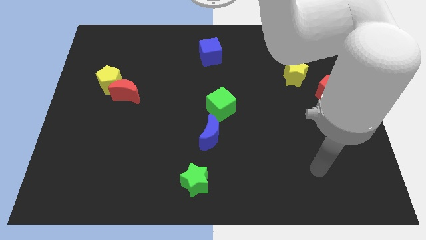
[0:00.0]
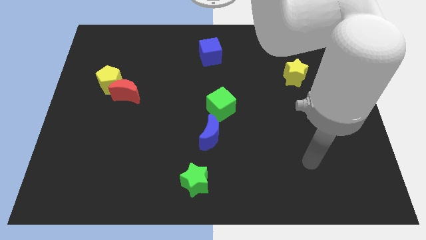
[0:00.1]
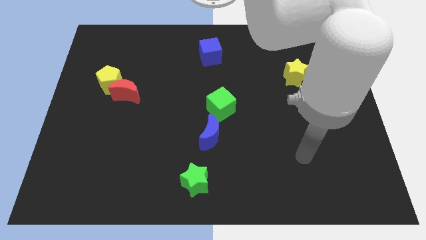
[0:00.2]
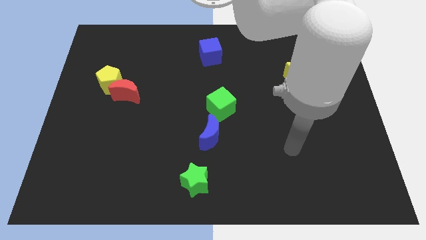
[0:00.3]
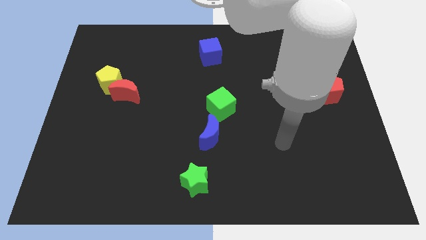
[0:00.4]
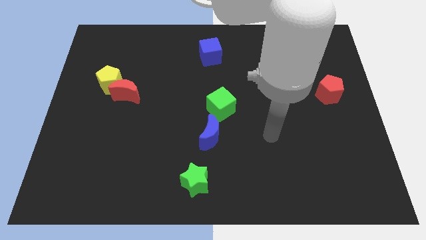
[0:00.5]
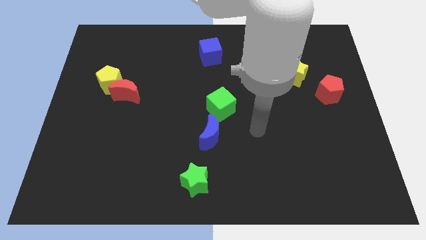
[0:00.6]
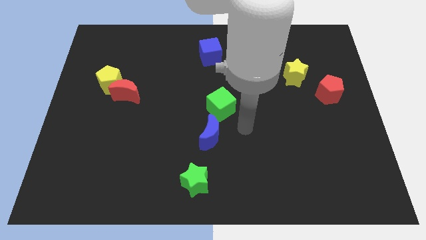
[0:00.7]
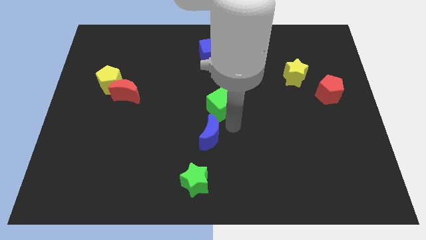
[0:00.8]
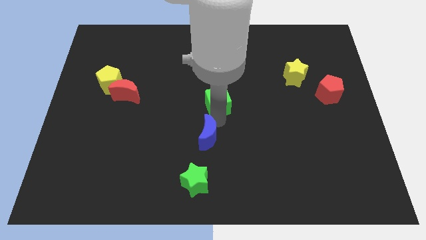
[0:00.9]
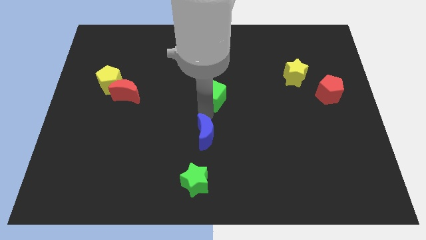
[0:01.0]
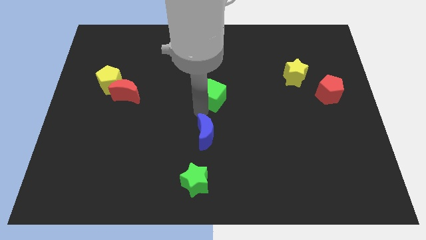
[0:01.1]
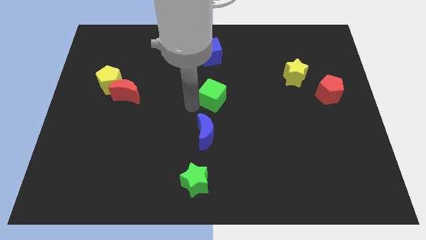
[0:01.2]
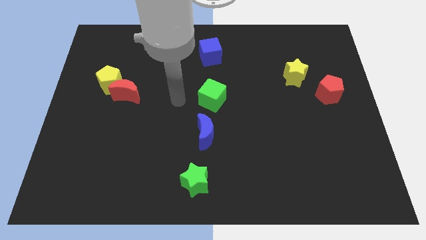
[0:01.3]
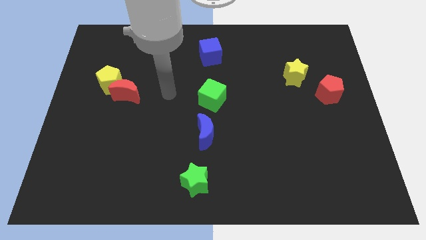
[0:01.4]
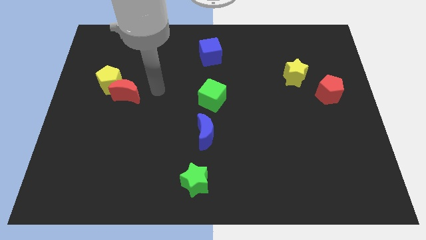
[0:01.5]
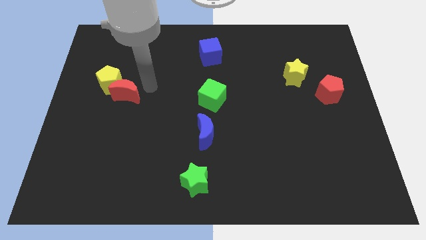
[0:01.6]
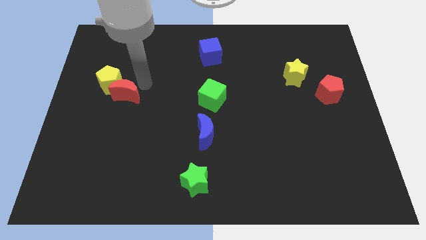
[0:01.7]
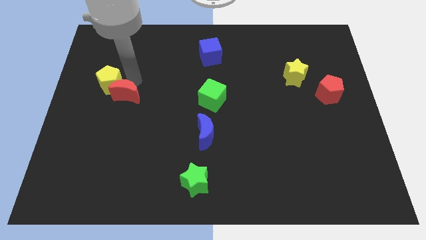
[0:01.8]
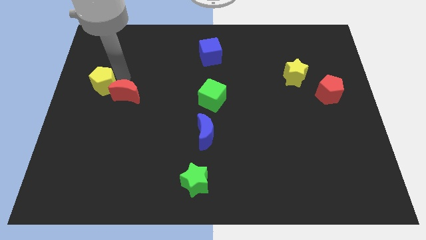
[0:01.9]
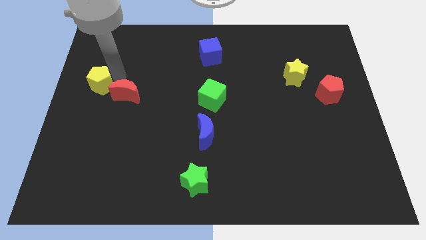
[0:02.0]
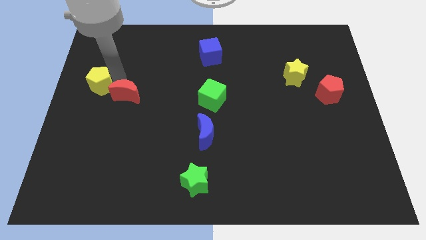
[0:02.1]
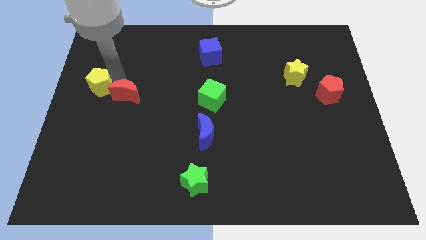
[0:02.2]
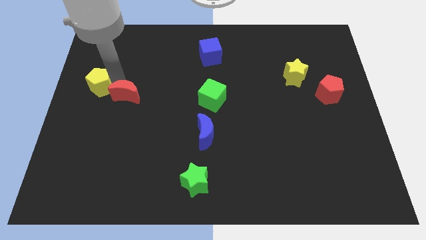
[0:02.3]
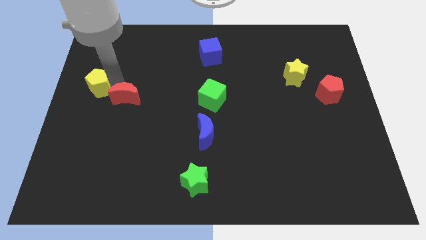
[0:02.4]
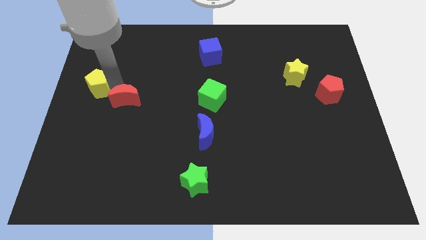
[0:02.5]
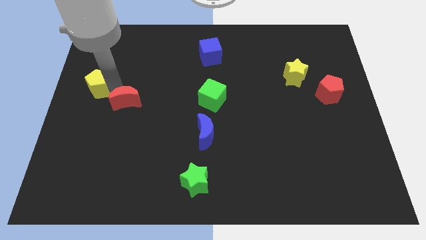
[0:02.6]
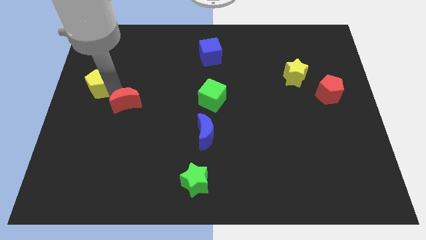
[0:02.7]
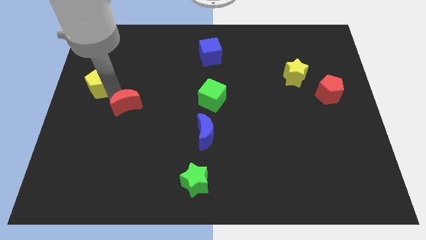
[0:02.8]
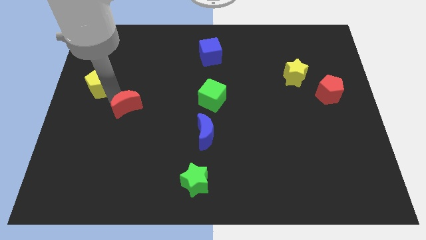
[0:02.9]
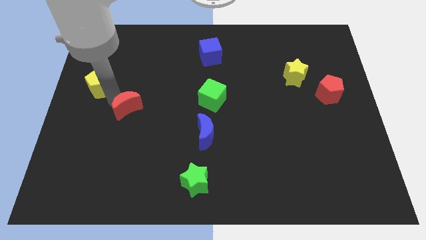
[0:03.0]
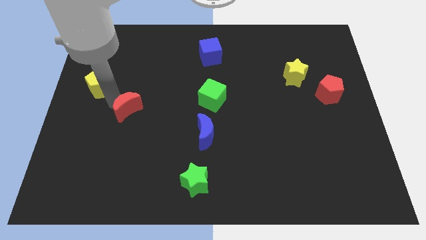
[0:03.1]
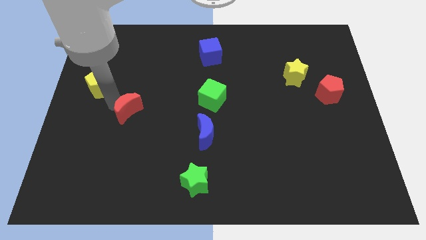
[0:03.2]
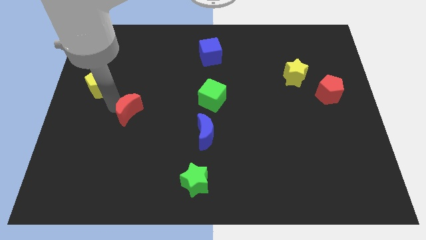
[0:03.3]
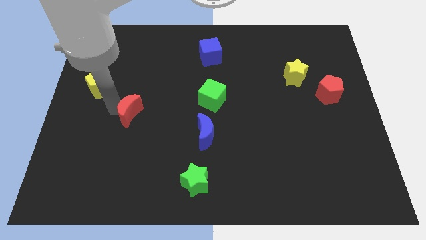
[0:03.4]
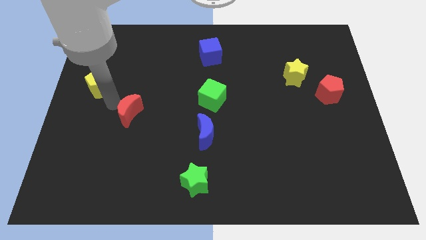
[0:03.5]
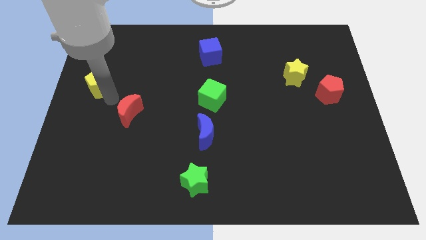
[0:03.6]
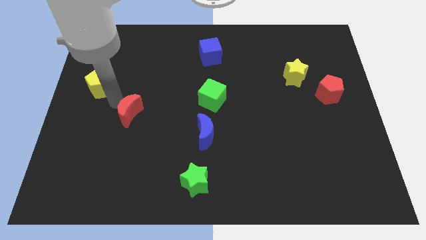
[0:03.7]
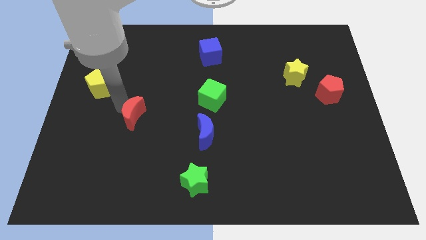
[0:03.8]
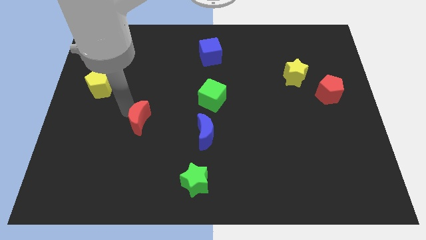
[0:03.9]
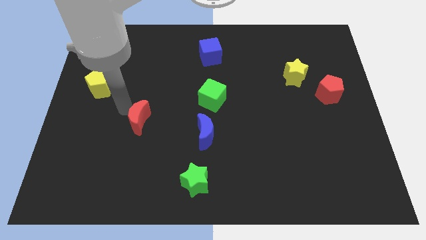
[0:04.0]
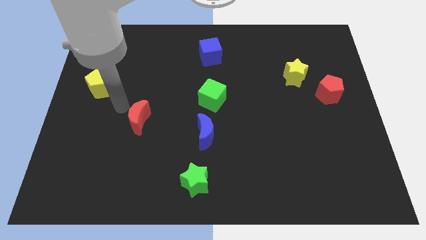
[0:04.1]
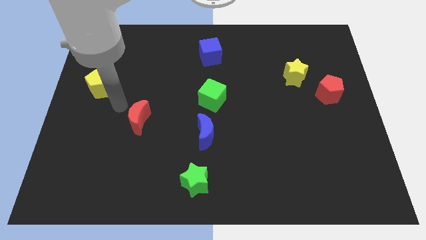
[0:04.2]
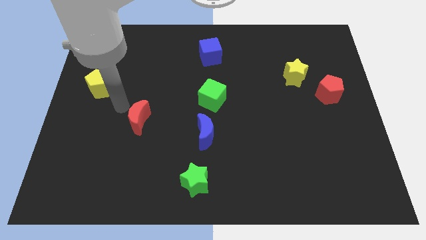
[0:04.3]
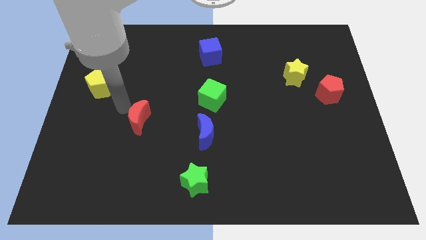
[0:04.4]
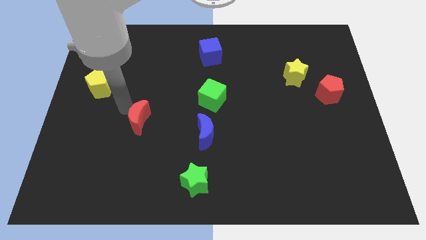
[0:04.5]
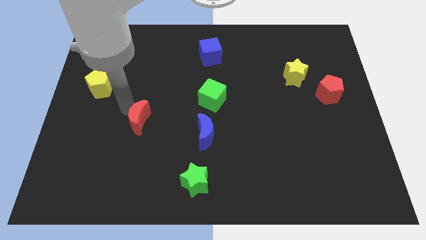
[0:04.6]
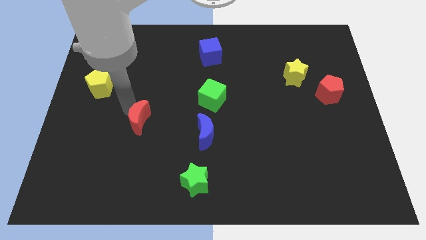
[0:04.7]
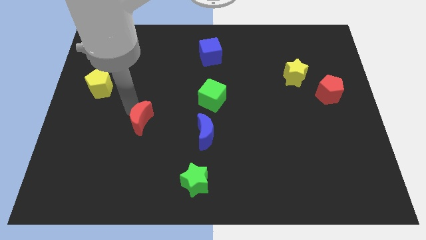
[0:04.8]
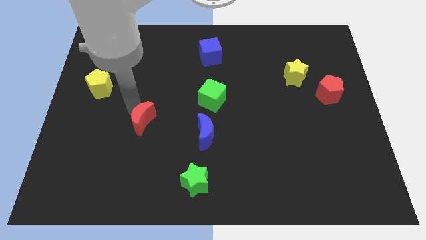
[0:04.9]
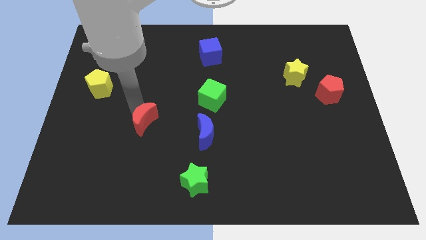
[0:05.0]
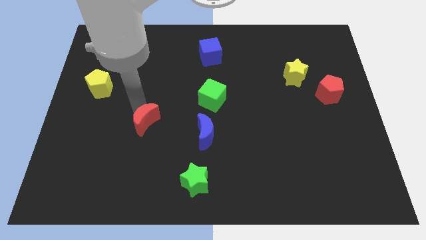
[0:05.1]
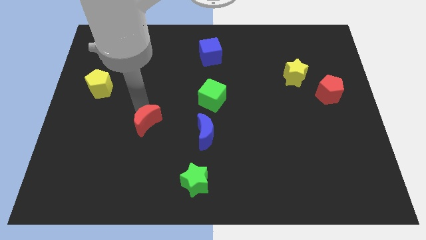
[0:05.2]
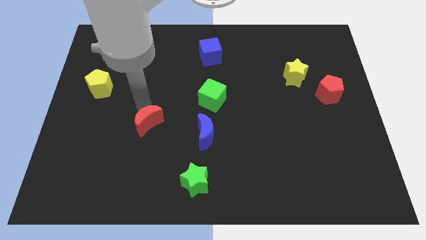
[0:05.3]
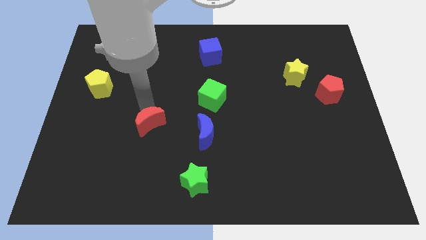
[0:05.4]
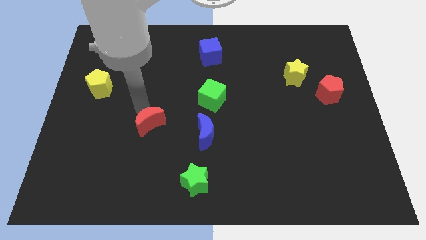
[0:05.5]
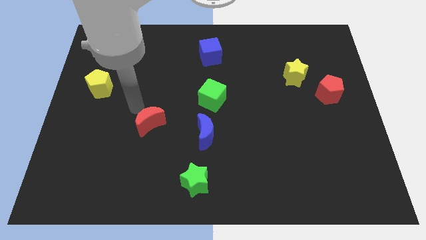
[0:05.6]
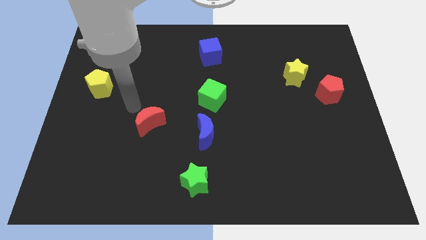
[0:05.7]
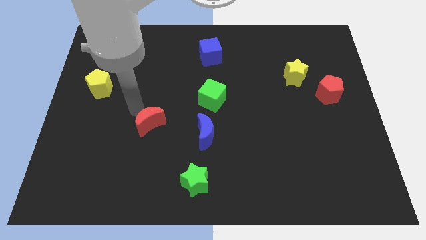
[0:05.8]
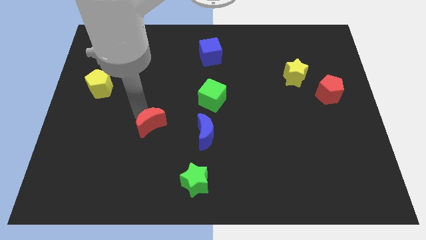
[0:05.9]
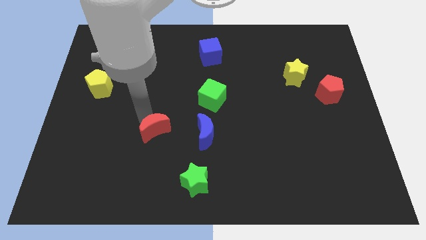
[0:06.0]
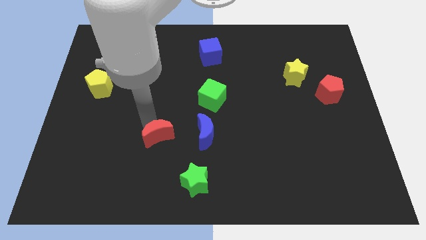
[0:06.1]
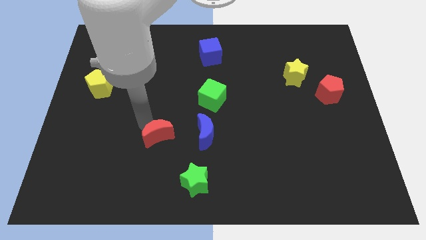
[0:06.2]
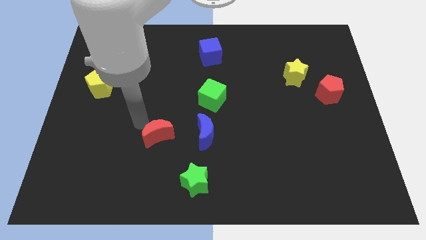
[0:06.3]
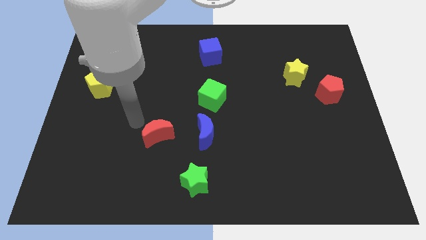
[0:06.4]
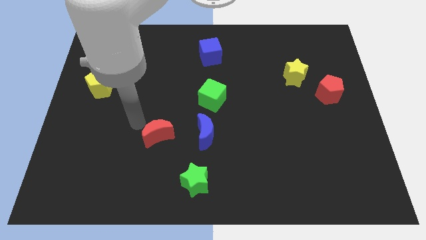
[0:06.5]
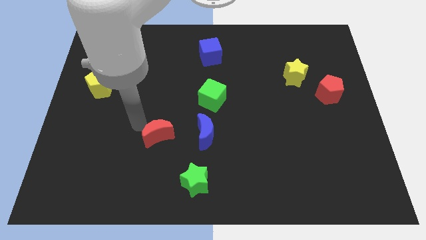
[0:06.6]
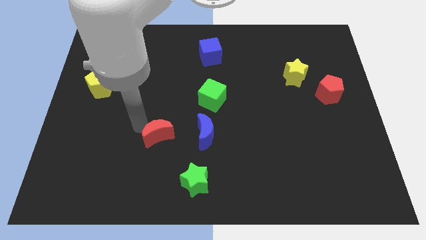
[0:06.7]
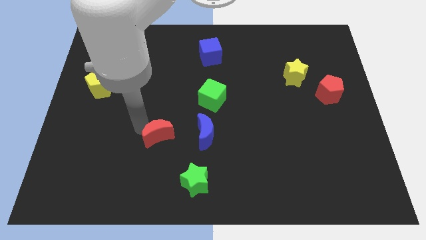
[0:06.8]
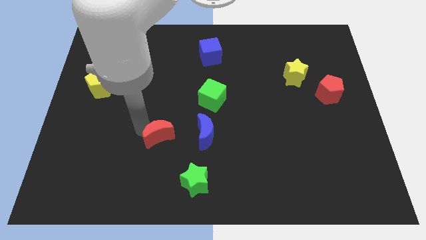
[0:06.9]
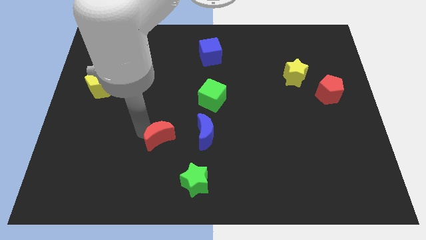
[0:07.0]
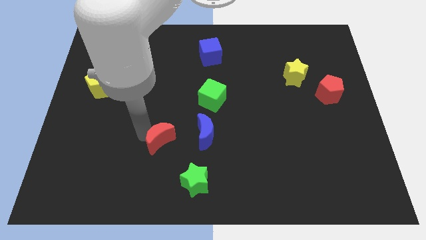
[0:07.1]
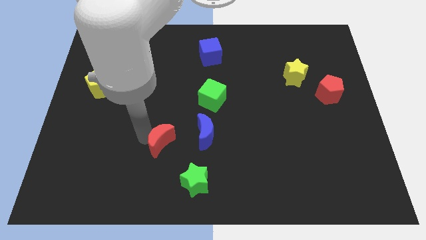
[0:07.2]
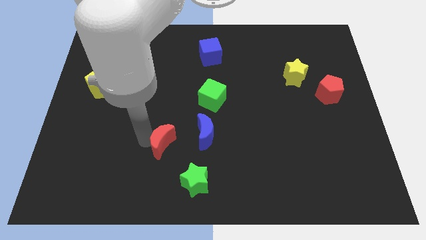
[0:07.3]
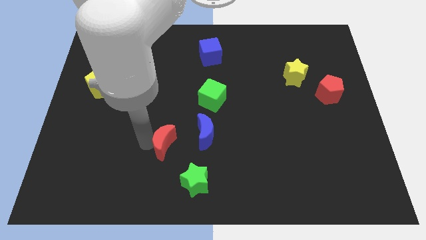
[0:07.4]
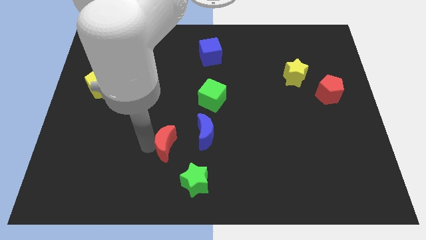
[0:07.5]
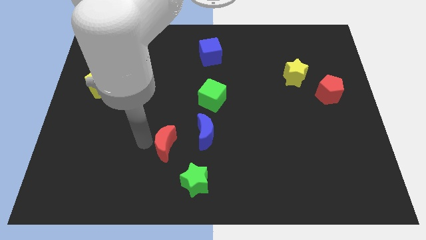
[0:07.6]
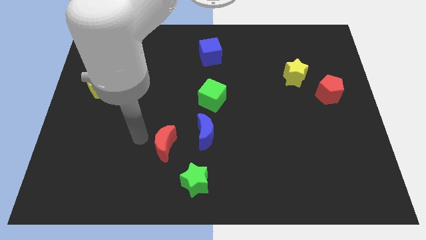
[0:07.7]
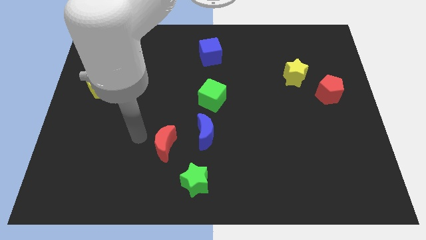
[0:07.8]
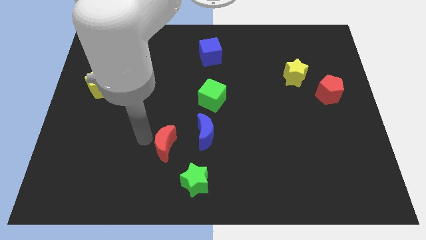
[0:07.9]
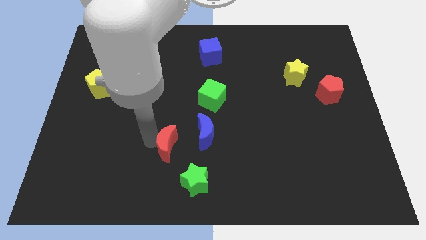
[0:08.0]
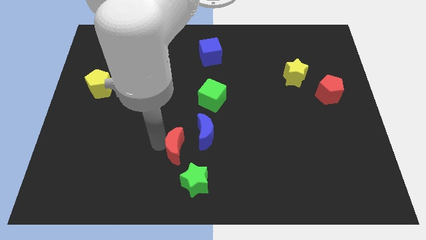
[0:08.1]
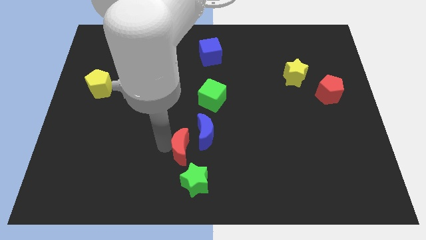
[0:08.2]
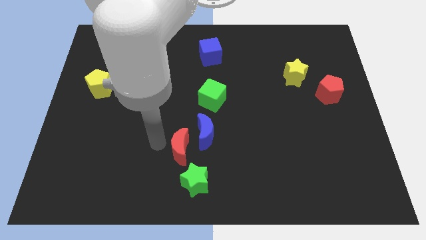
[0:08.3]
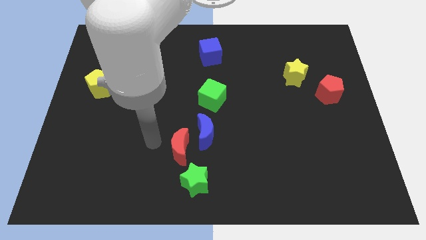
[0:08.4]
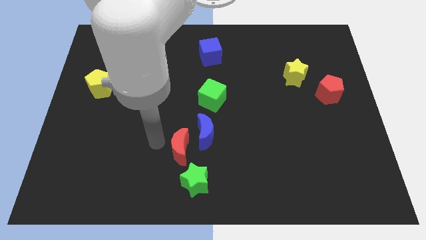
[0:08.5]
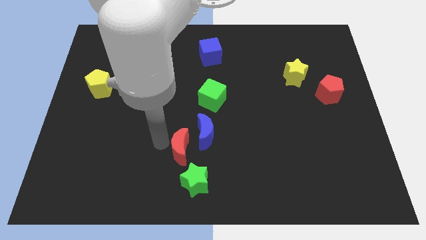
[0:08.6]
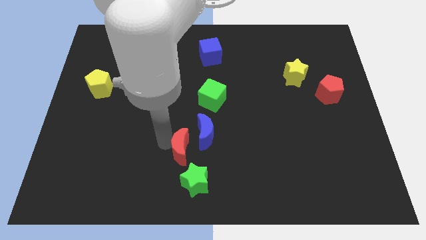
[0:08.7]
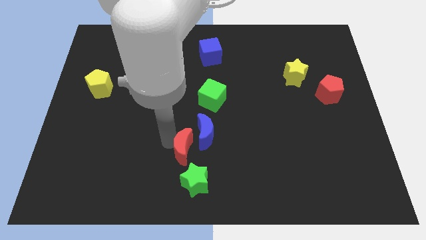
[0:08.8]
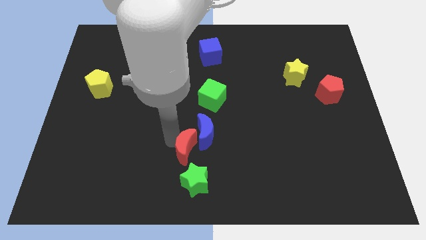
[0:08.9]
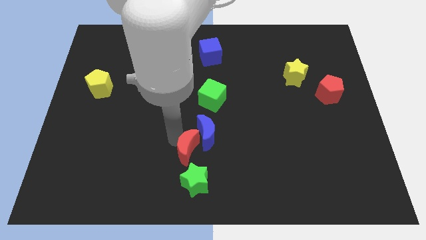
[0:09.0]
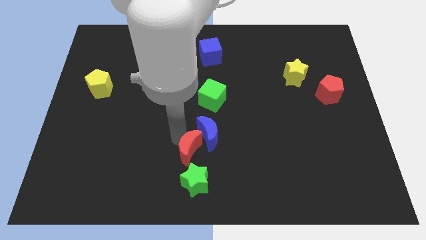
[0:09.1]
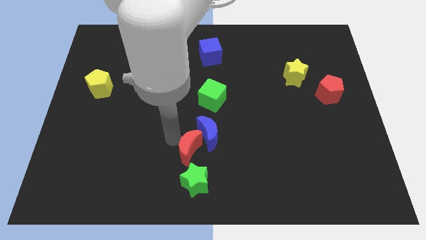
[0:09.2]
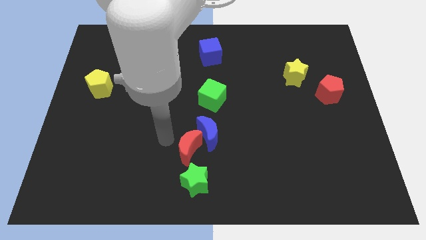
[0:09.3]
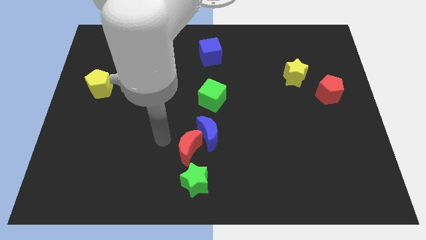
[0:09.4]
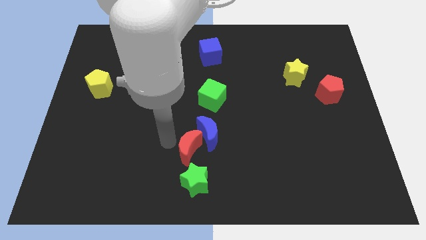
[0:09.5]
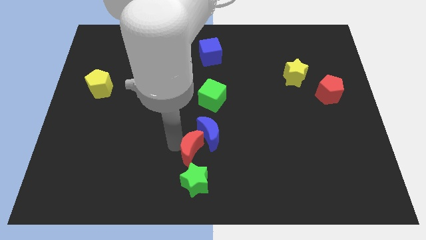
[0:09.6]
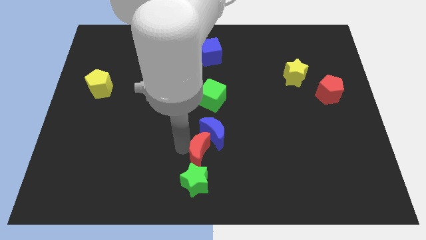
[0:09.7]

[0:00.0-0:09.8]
move the red moon diagonally up and to the right of the green star
